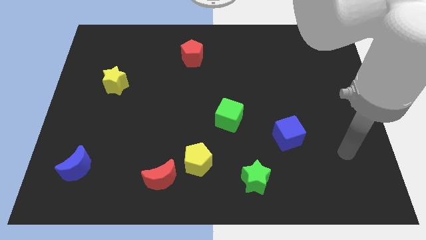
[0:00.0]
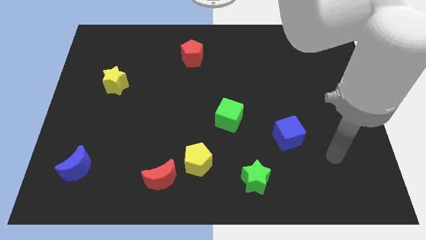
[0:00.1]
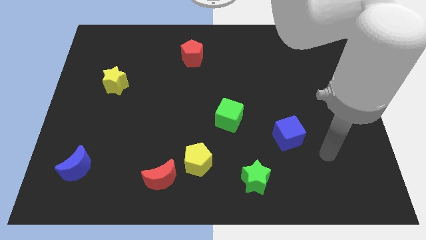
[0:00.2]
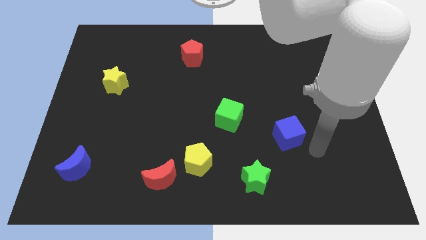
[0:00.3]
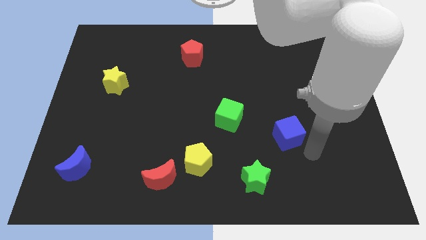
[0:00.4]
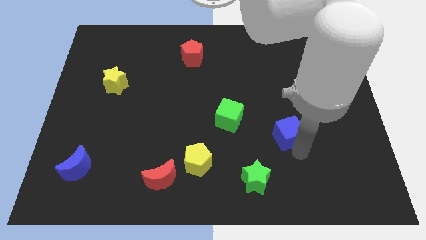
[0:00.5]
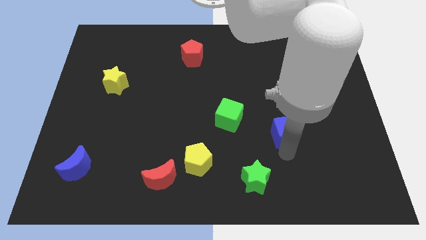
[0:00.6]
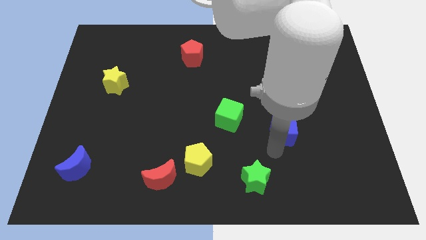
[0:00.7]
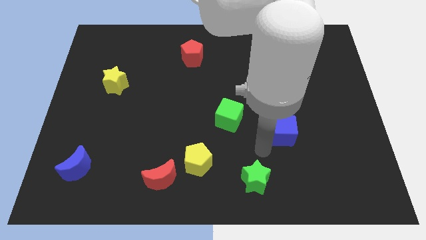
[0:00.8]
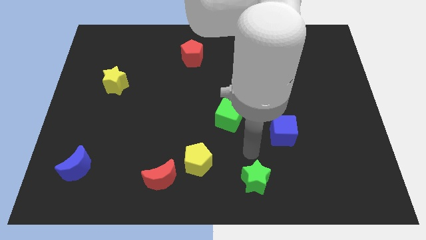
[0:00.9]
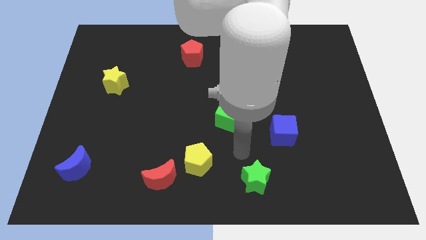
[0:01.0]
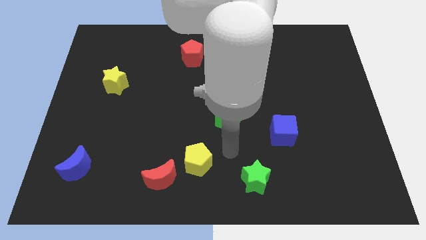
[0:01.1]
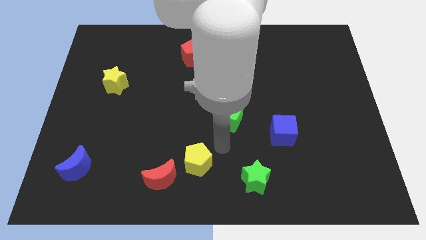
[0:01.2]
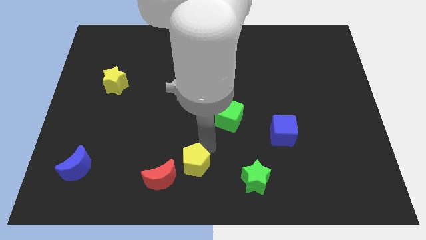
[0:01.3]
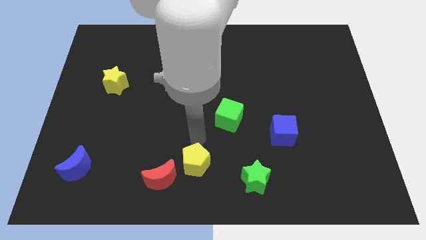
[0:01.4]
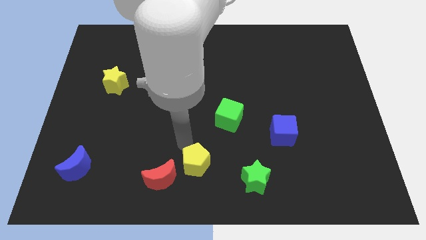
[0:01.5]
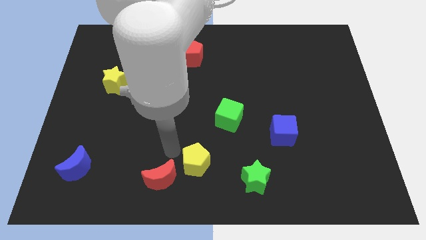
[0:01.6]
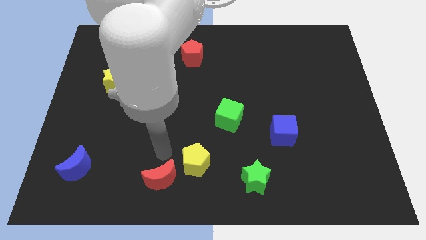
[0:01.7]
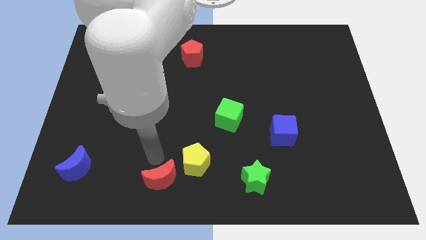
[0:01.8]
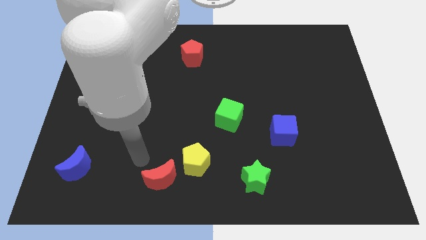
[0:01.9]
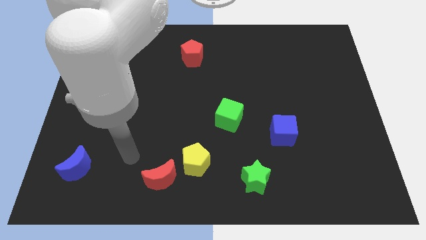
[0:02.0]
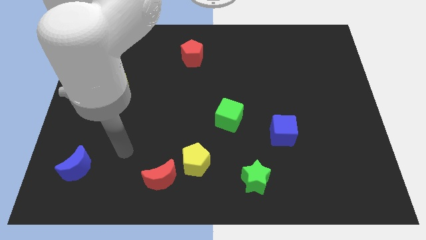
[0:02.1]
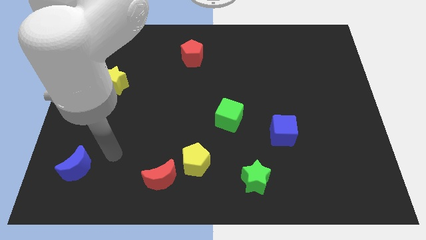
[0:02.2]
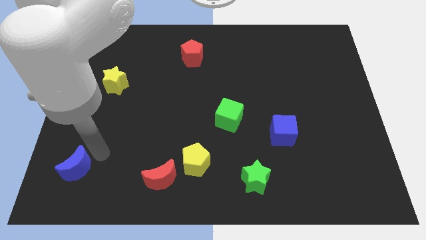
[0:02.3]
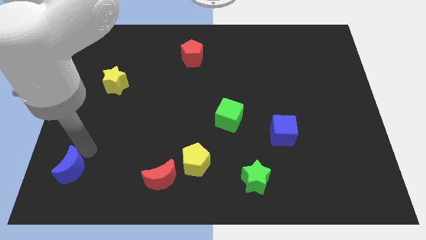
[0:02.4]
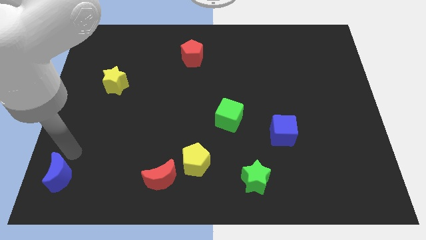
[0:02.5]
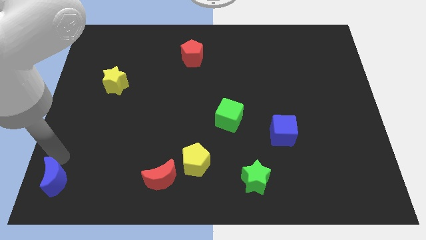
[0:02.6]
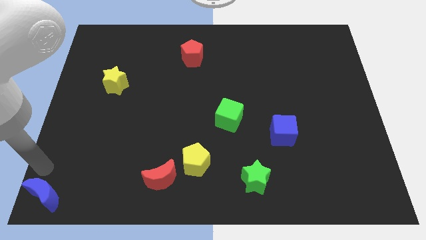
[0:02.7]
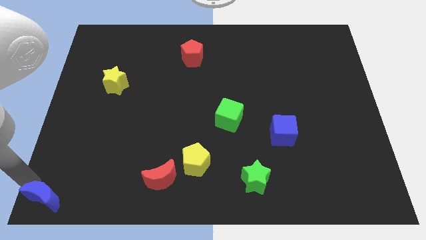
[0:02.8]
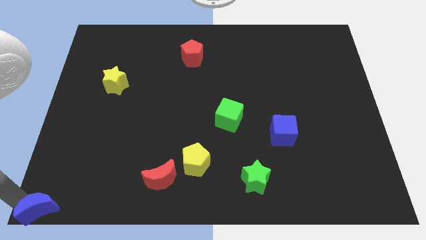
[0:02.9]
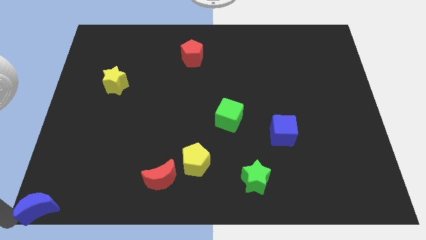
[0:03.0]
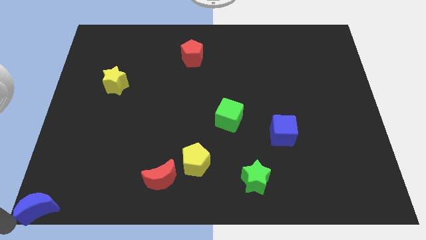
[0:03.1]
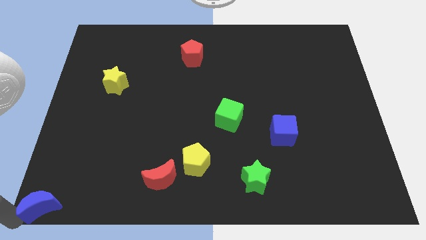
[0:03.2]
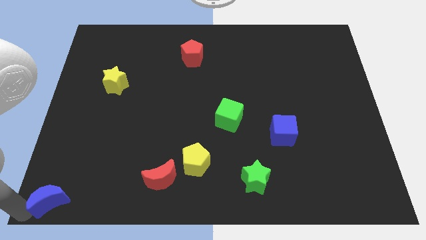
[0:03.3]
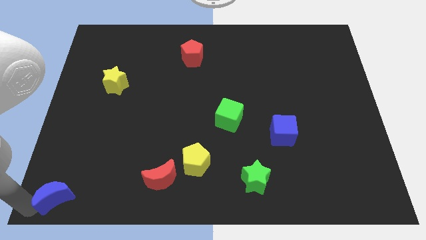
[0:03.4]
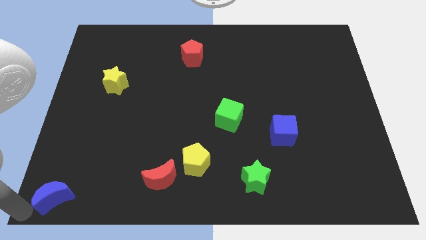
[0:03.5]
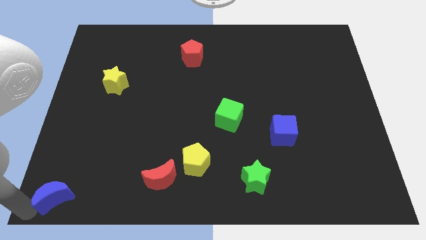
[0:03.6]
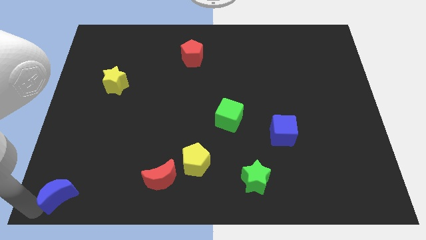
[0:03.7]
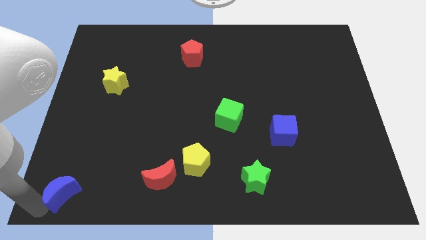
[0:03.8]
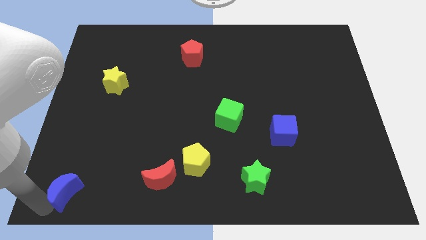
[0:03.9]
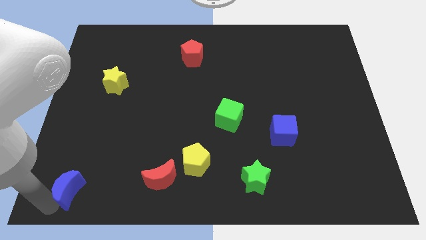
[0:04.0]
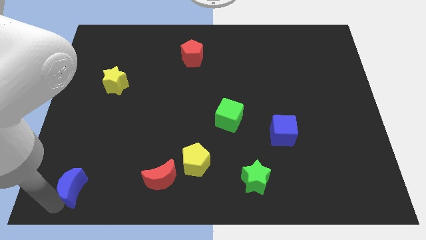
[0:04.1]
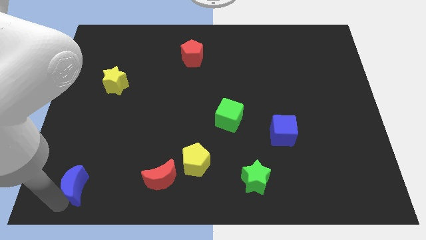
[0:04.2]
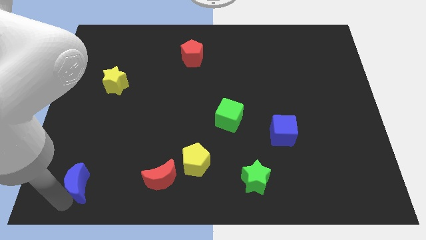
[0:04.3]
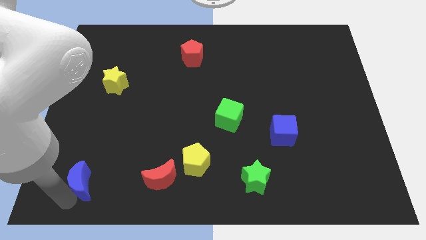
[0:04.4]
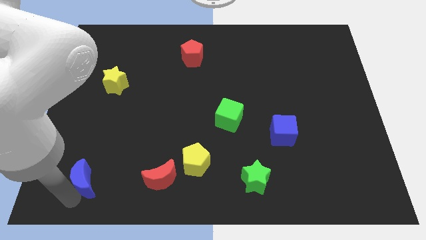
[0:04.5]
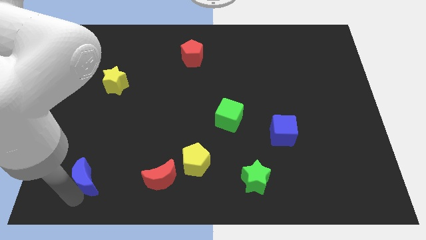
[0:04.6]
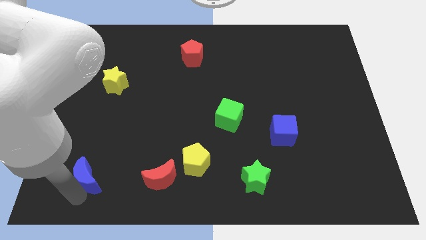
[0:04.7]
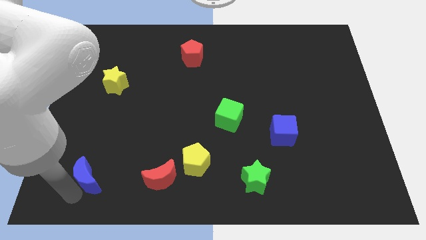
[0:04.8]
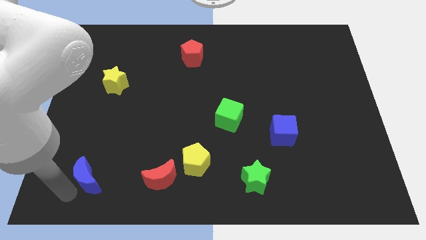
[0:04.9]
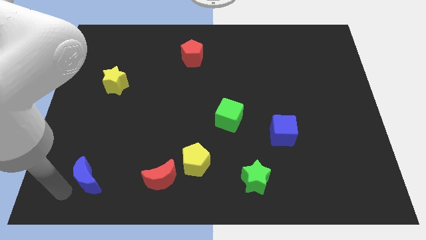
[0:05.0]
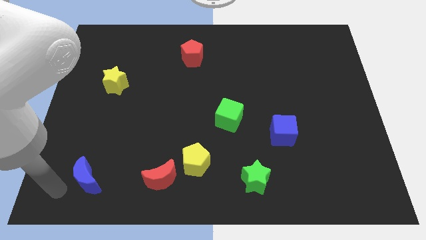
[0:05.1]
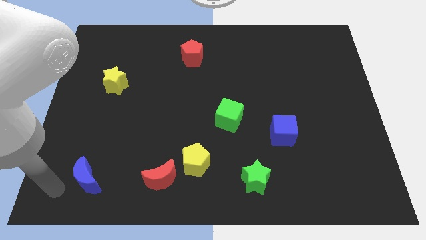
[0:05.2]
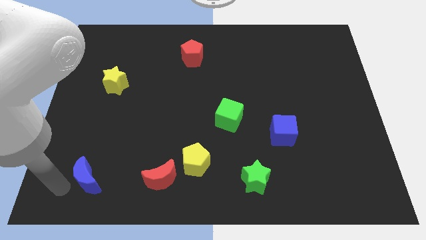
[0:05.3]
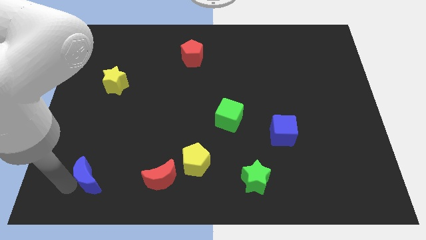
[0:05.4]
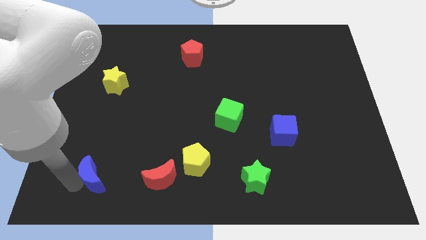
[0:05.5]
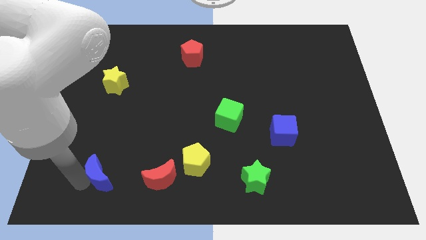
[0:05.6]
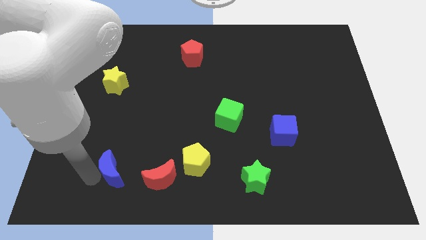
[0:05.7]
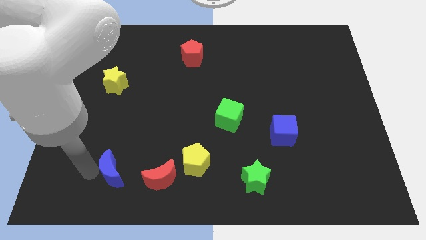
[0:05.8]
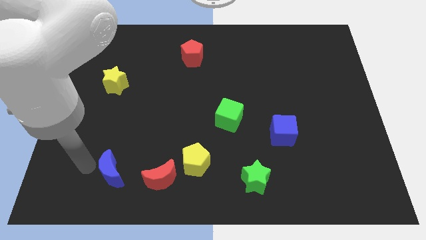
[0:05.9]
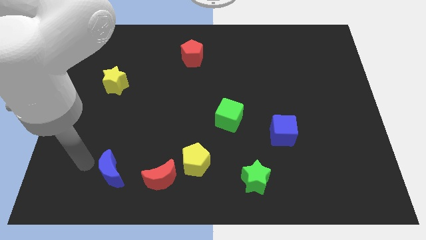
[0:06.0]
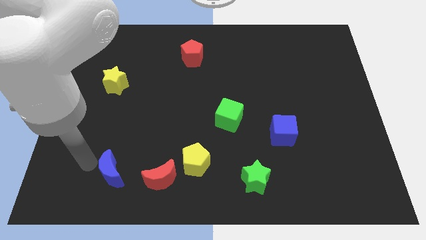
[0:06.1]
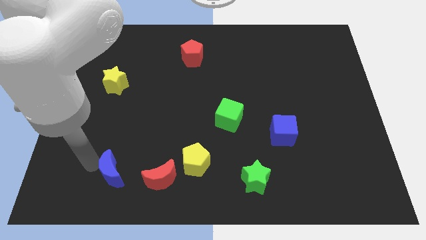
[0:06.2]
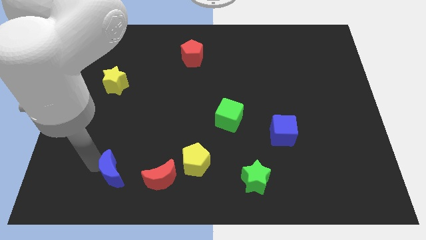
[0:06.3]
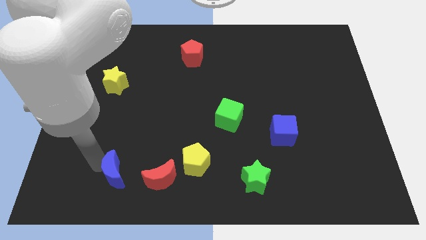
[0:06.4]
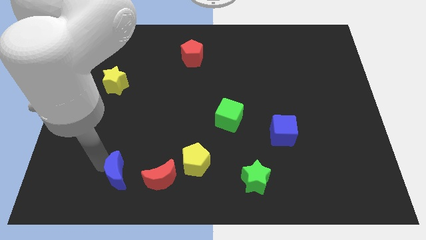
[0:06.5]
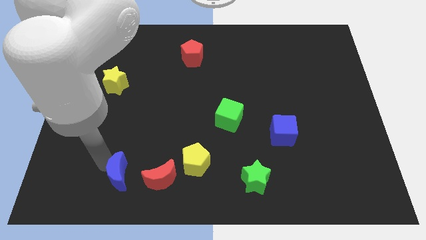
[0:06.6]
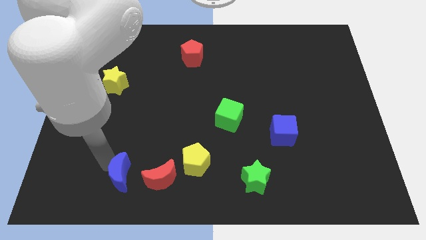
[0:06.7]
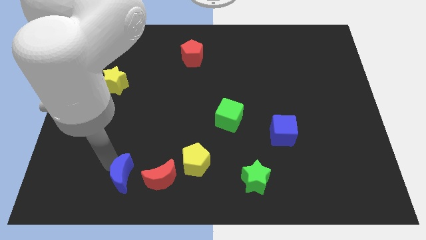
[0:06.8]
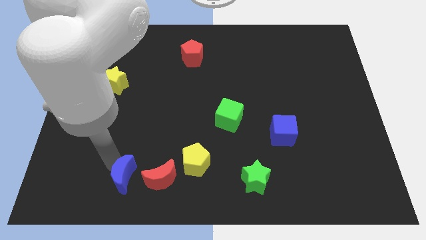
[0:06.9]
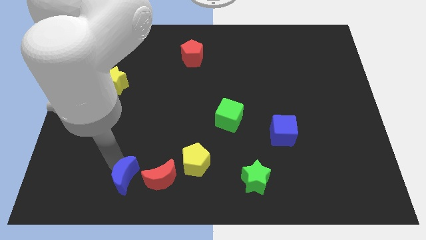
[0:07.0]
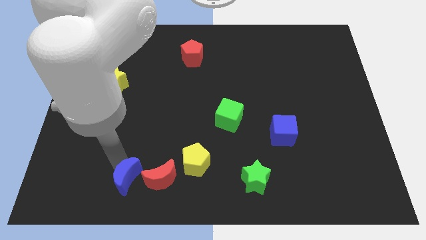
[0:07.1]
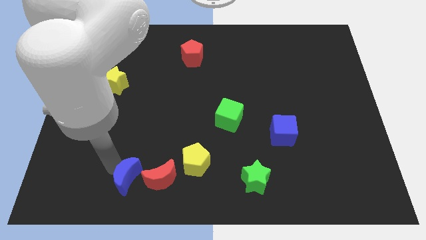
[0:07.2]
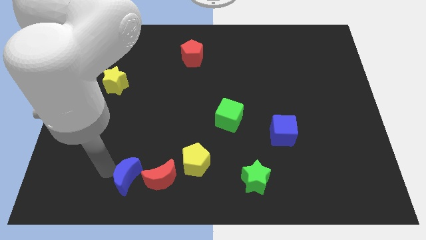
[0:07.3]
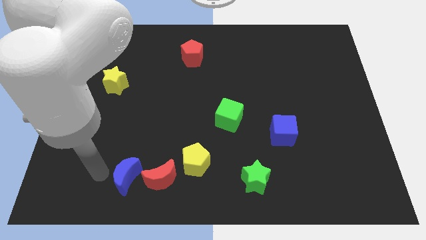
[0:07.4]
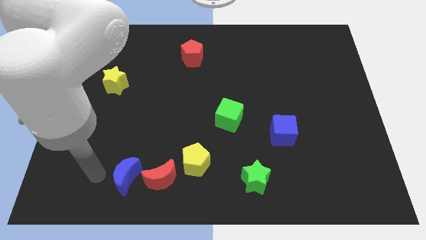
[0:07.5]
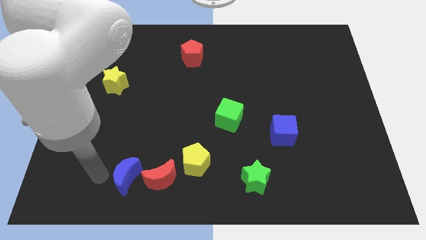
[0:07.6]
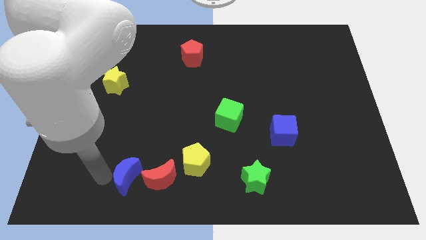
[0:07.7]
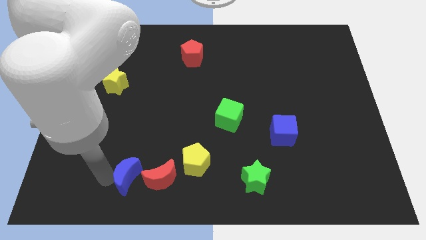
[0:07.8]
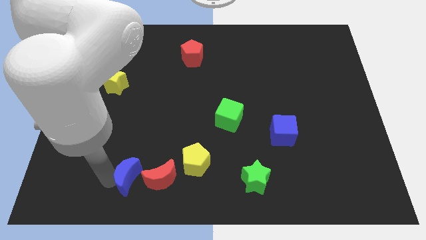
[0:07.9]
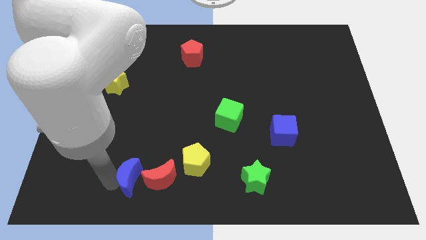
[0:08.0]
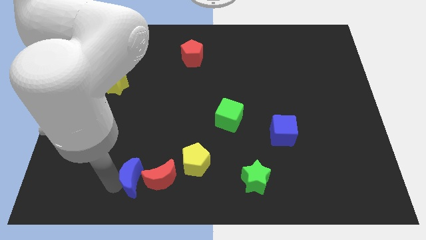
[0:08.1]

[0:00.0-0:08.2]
slide the blue moon next to the red moon
